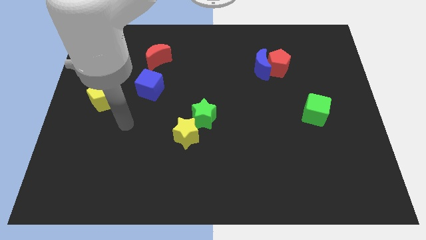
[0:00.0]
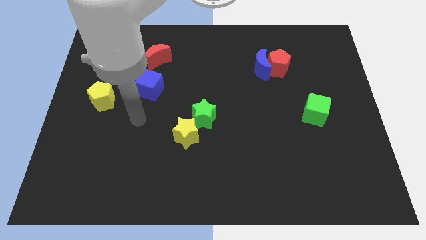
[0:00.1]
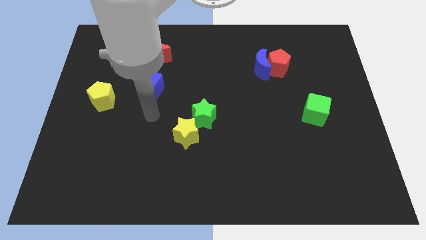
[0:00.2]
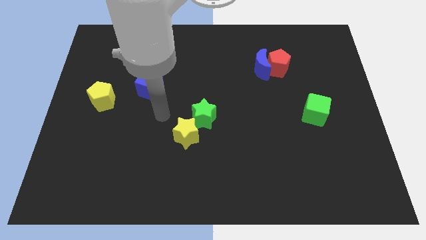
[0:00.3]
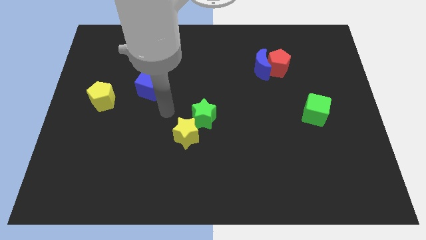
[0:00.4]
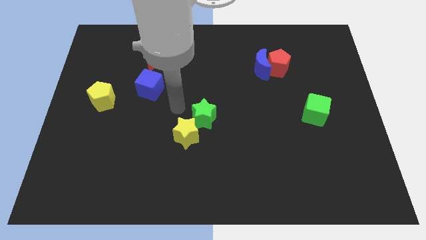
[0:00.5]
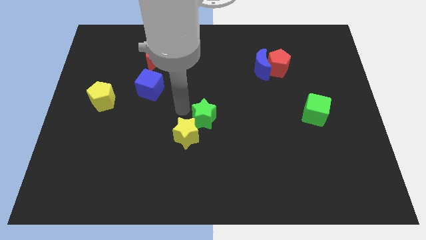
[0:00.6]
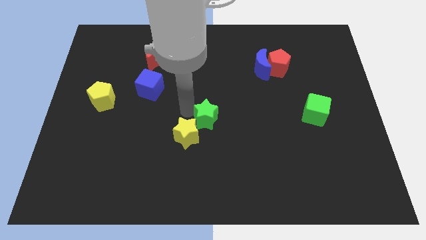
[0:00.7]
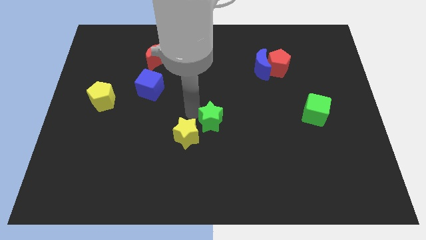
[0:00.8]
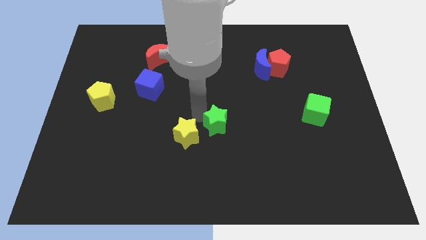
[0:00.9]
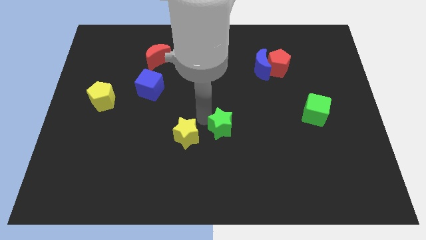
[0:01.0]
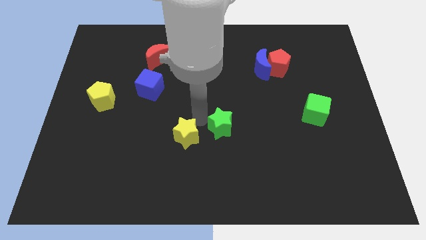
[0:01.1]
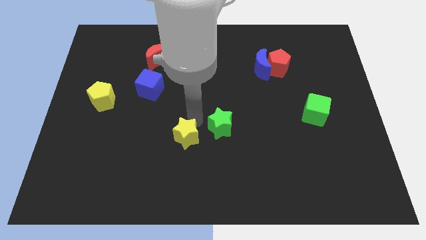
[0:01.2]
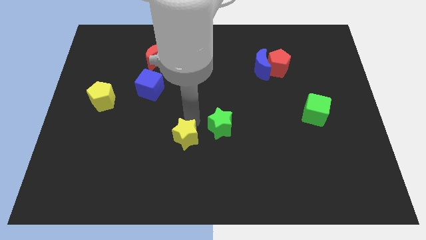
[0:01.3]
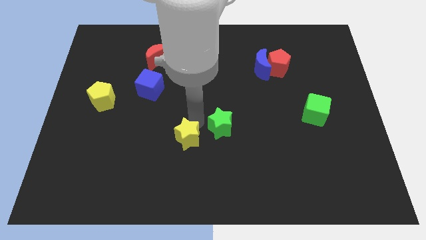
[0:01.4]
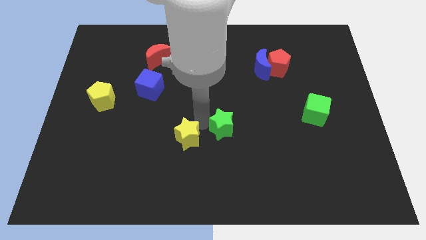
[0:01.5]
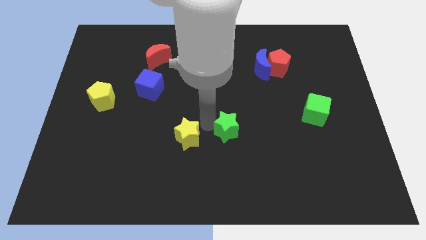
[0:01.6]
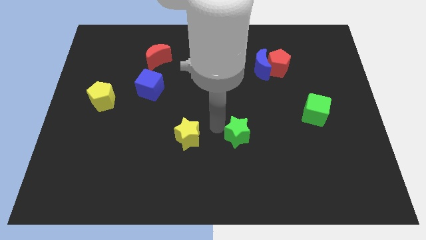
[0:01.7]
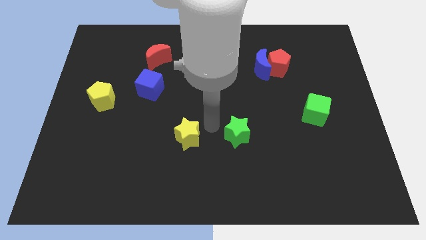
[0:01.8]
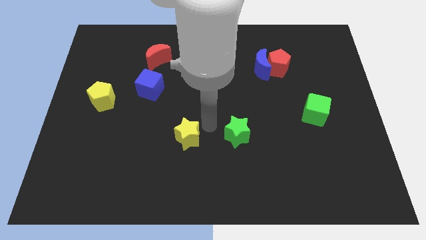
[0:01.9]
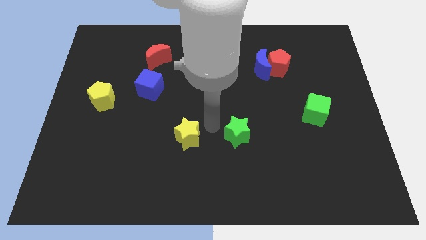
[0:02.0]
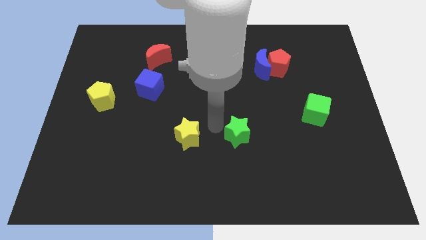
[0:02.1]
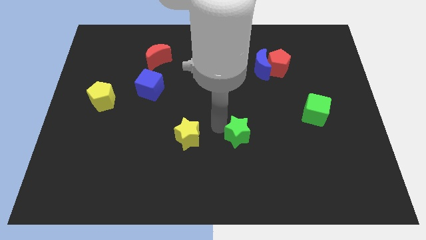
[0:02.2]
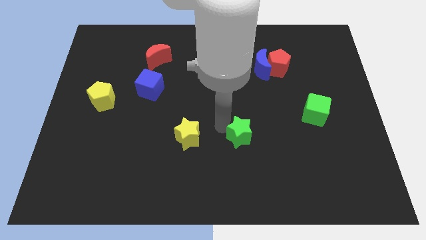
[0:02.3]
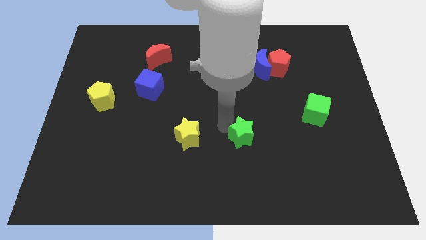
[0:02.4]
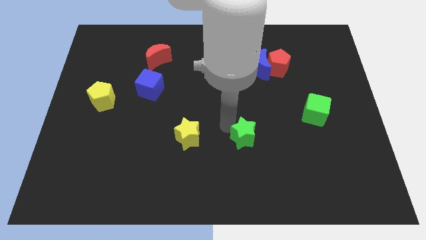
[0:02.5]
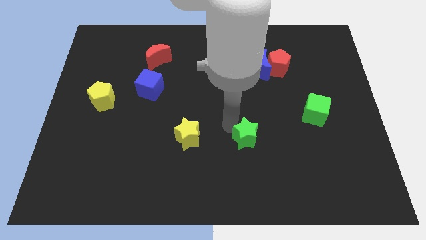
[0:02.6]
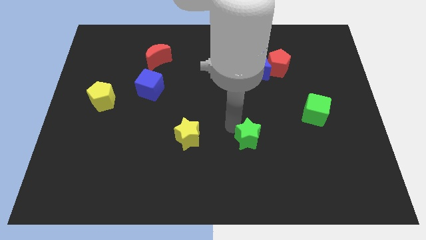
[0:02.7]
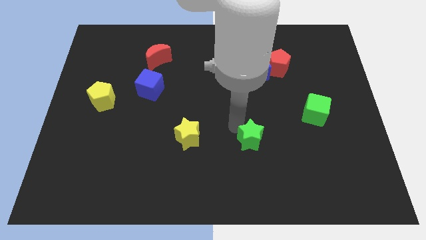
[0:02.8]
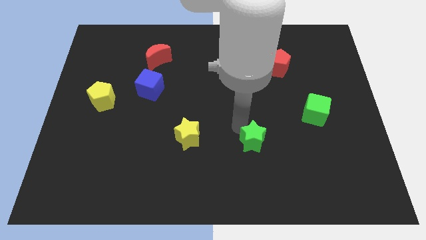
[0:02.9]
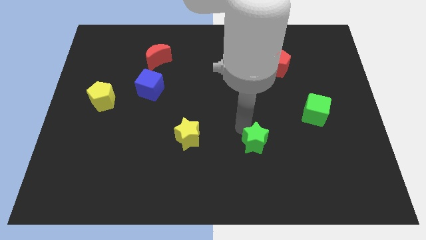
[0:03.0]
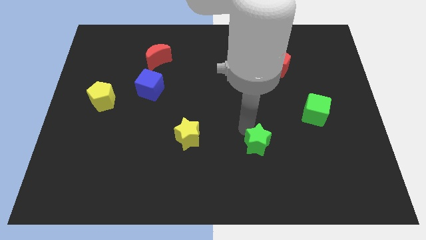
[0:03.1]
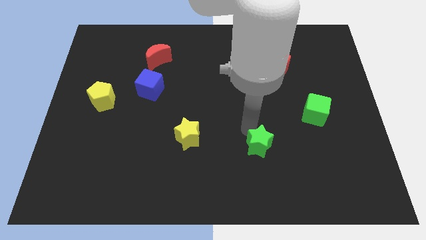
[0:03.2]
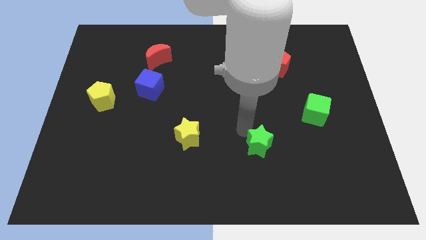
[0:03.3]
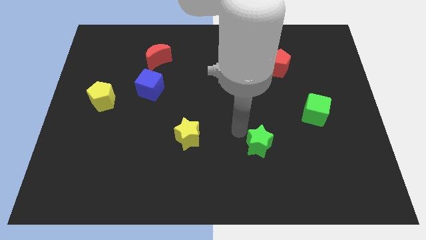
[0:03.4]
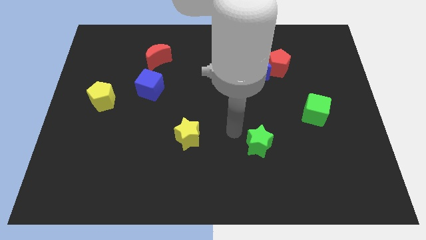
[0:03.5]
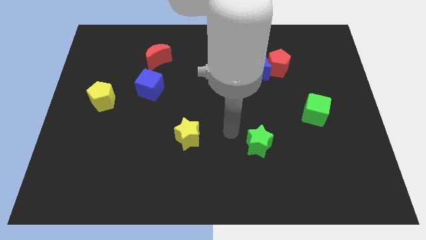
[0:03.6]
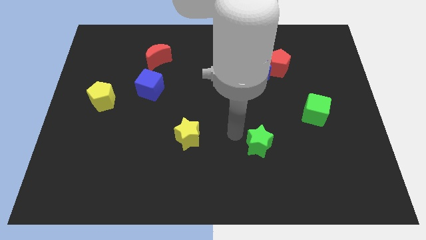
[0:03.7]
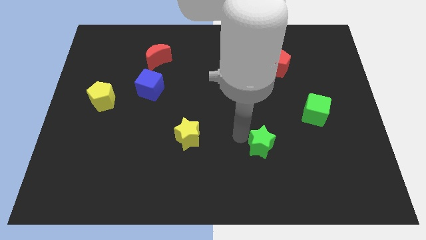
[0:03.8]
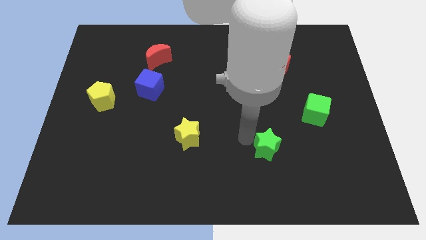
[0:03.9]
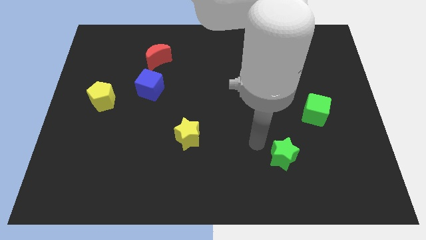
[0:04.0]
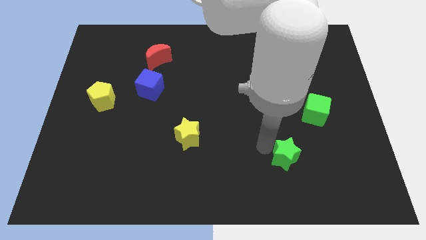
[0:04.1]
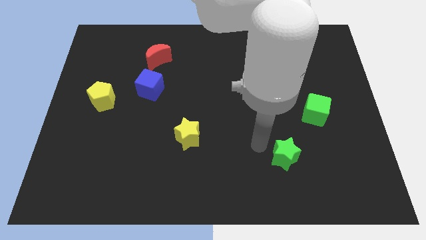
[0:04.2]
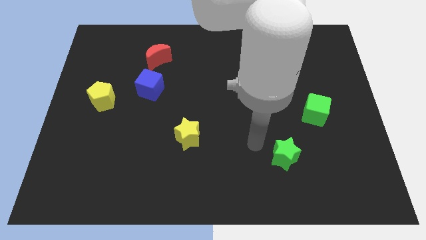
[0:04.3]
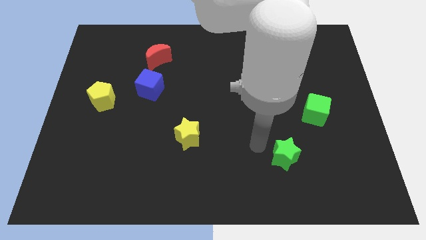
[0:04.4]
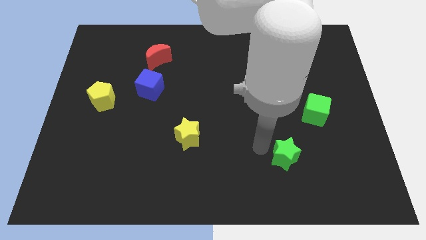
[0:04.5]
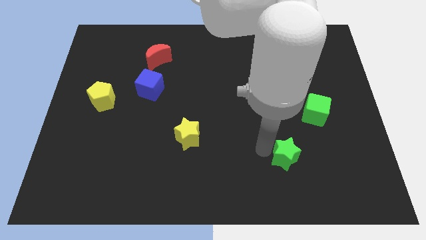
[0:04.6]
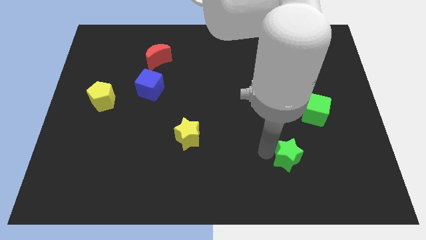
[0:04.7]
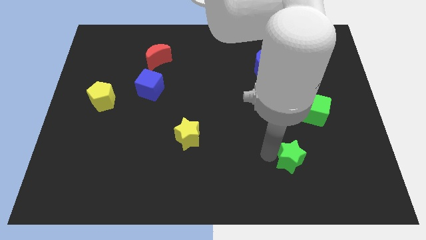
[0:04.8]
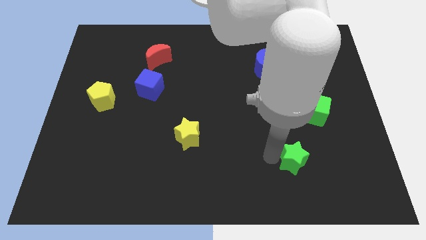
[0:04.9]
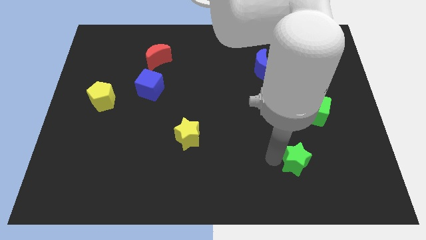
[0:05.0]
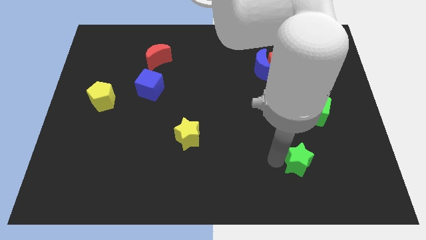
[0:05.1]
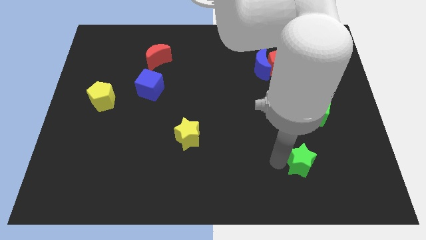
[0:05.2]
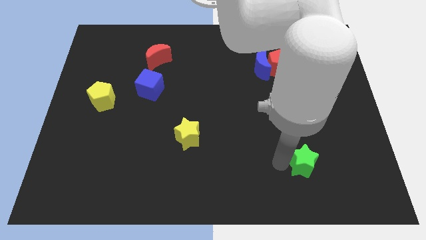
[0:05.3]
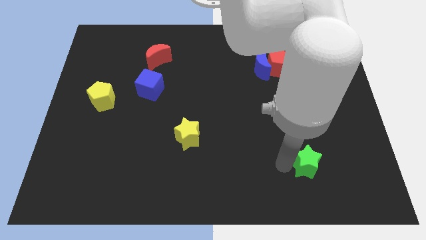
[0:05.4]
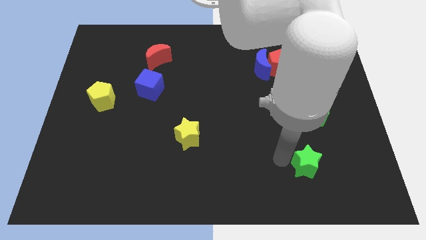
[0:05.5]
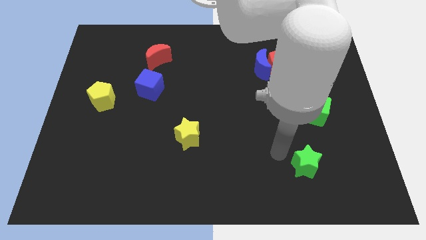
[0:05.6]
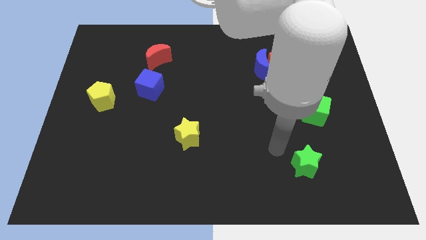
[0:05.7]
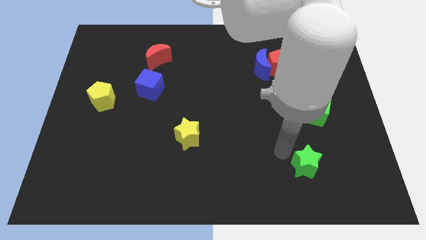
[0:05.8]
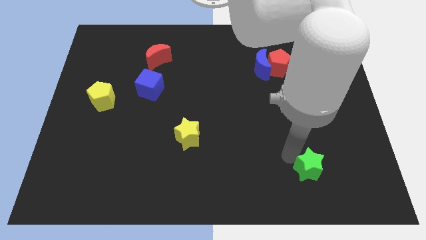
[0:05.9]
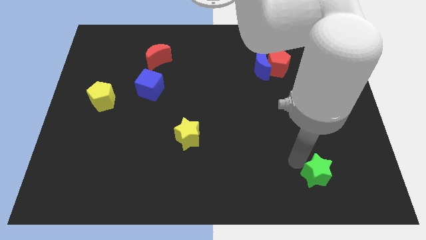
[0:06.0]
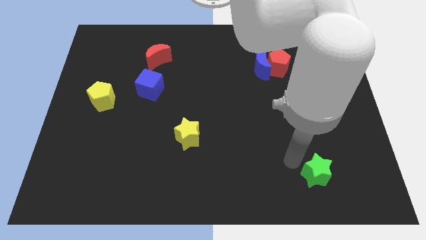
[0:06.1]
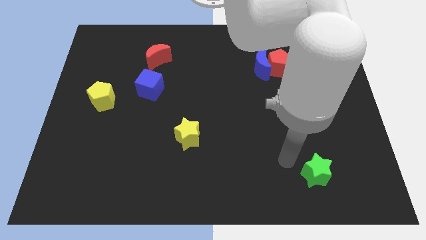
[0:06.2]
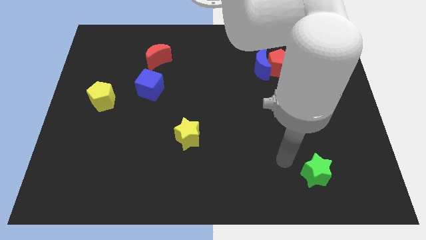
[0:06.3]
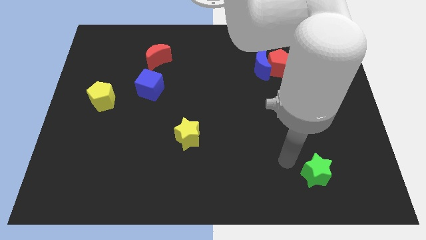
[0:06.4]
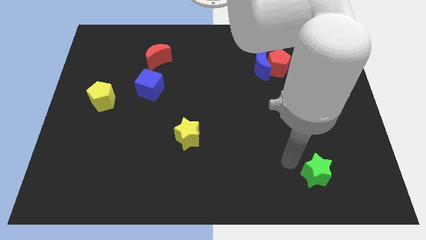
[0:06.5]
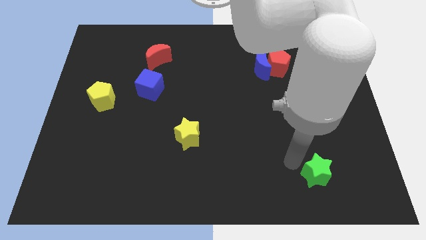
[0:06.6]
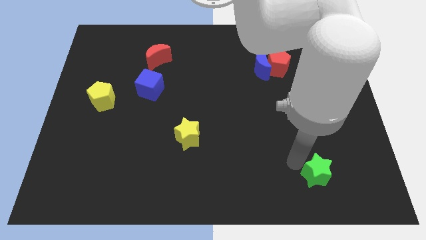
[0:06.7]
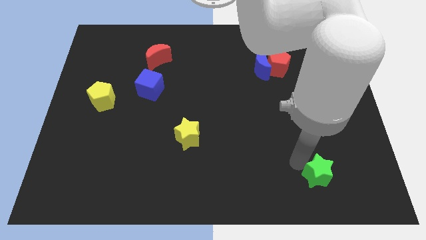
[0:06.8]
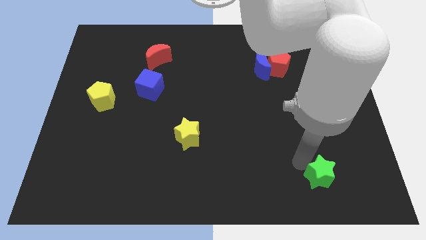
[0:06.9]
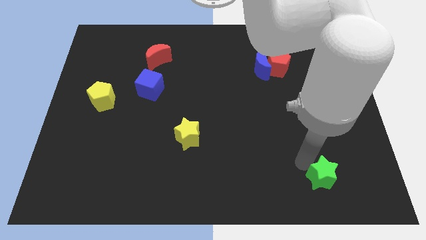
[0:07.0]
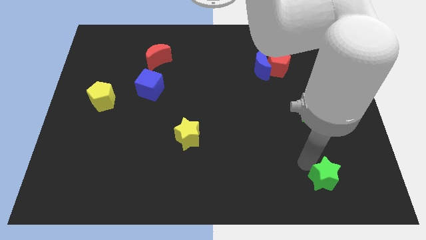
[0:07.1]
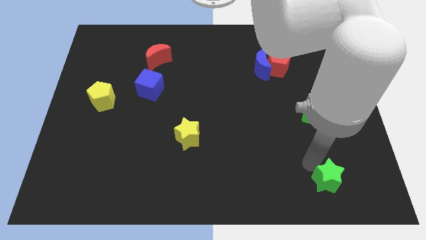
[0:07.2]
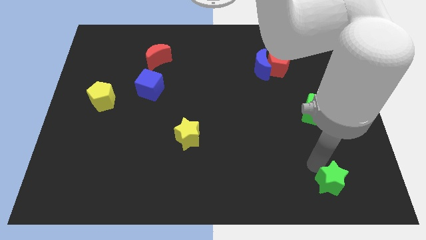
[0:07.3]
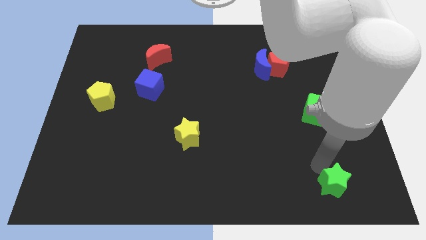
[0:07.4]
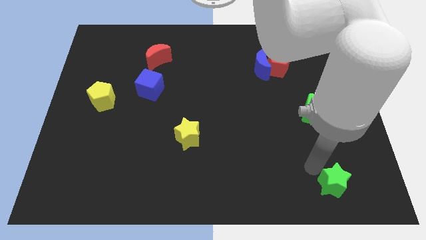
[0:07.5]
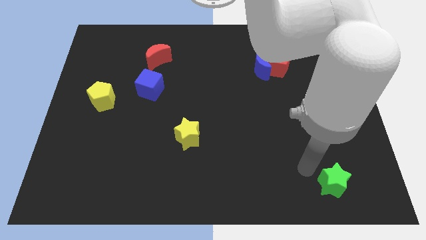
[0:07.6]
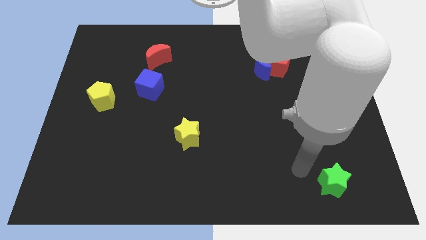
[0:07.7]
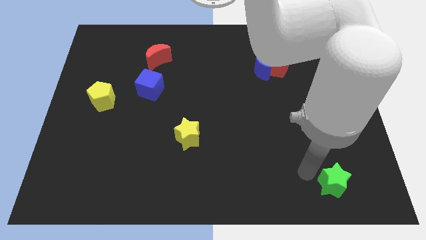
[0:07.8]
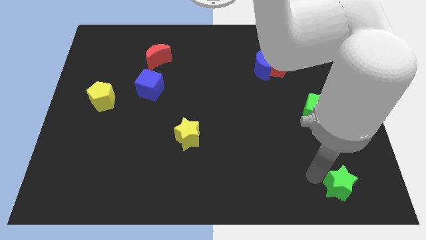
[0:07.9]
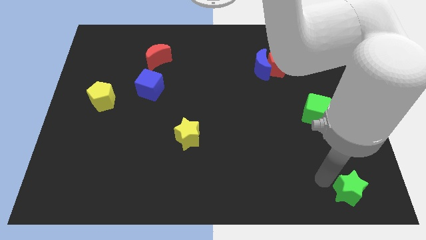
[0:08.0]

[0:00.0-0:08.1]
push the green star to the bottom right of the board
